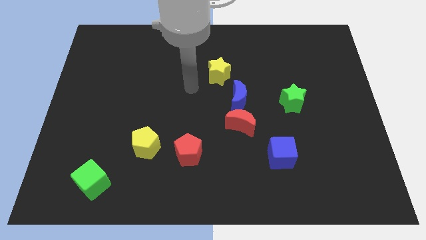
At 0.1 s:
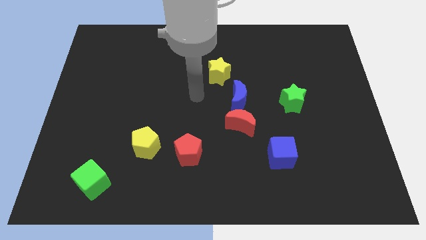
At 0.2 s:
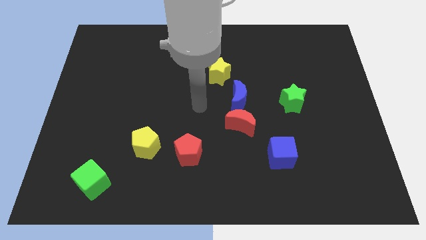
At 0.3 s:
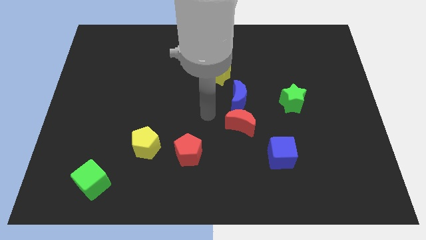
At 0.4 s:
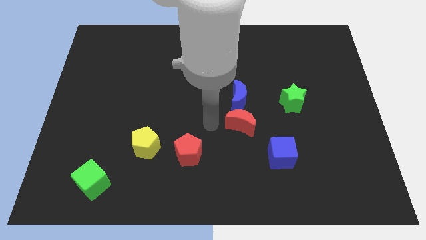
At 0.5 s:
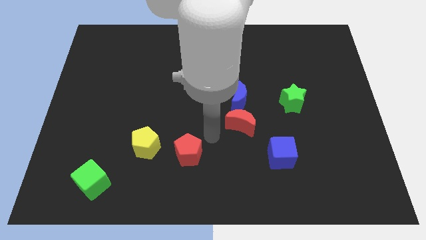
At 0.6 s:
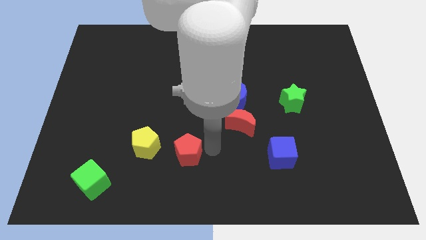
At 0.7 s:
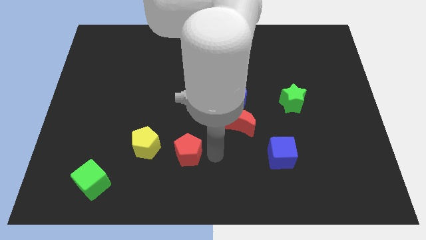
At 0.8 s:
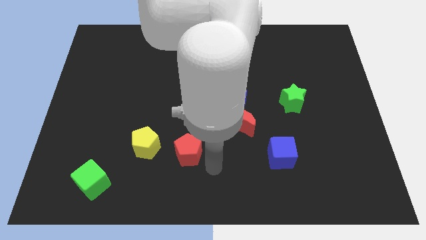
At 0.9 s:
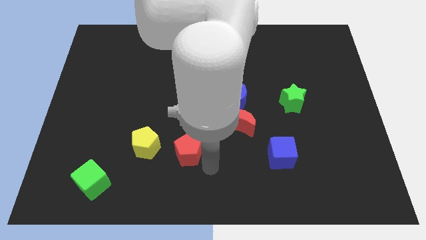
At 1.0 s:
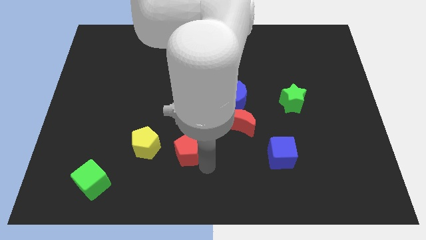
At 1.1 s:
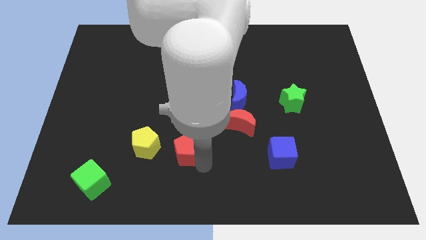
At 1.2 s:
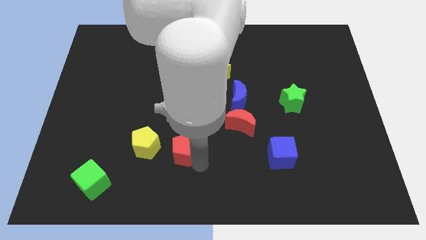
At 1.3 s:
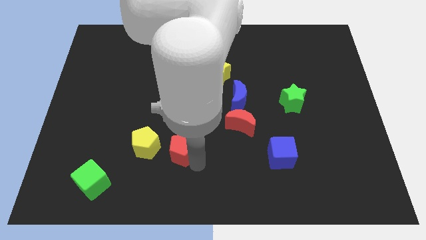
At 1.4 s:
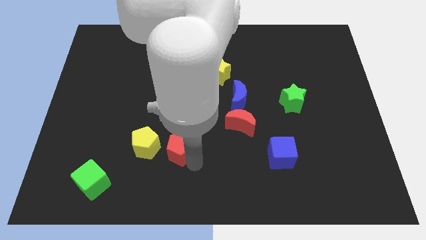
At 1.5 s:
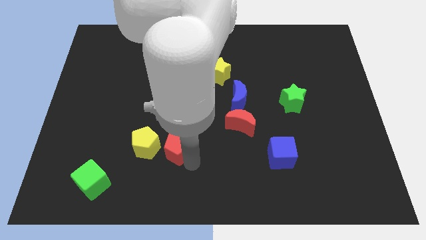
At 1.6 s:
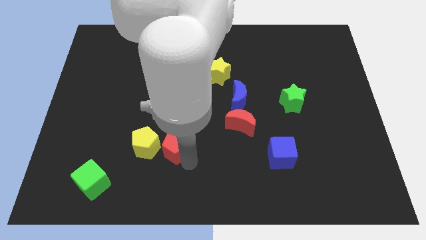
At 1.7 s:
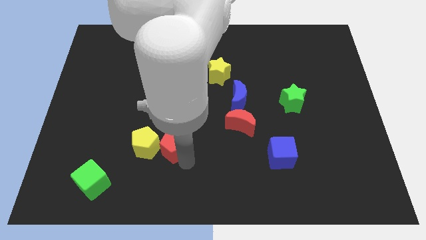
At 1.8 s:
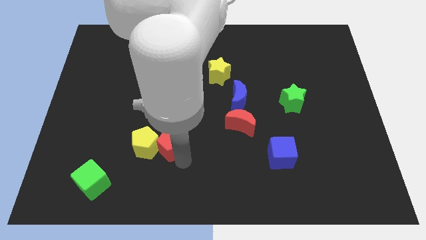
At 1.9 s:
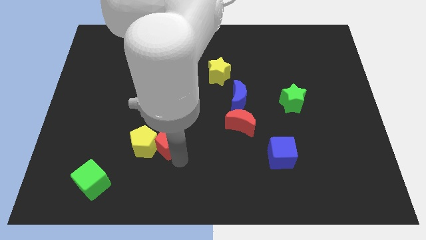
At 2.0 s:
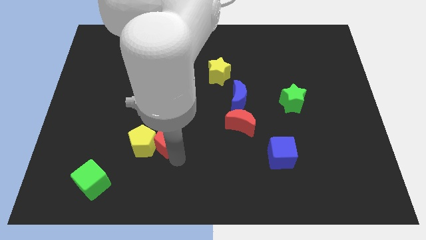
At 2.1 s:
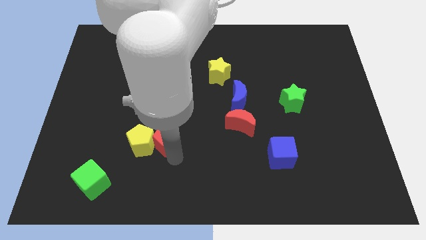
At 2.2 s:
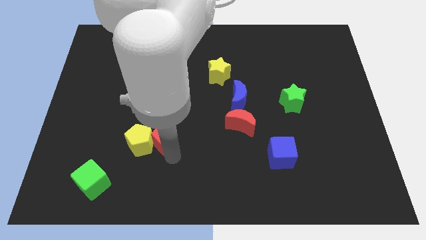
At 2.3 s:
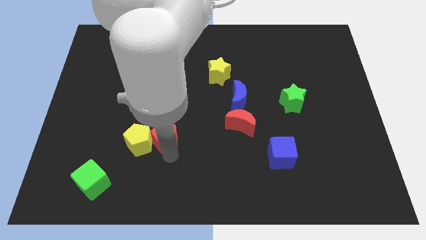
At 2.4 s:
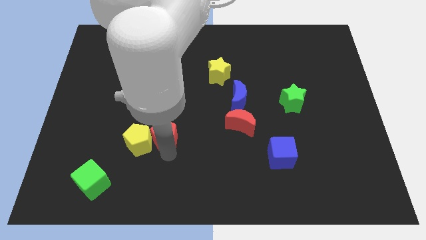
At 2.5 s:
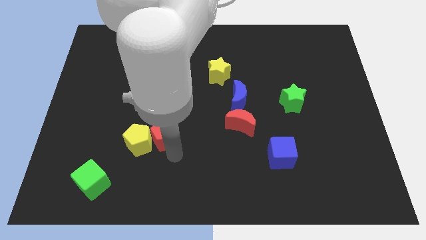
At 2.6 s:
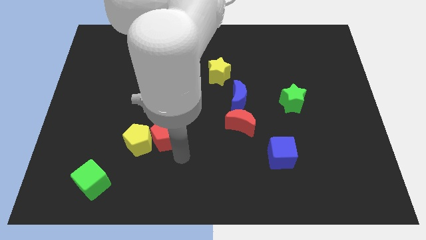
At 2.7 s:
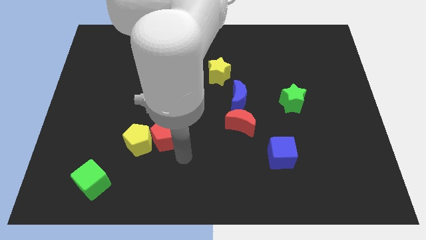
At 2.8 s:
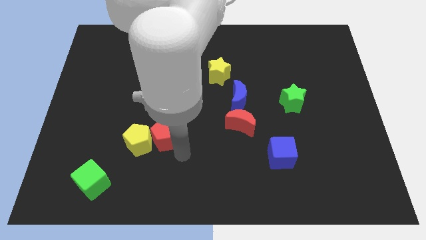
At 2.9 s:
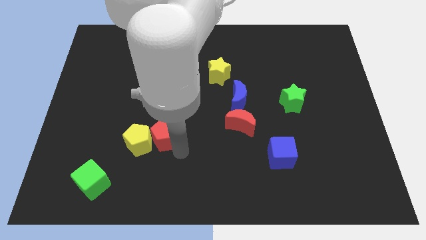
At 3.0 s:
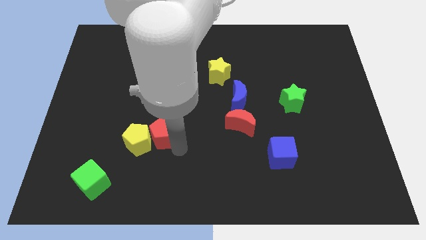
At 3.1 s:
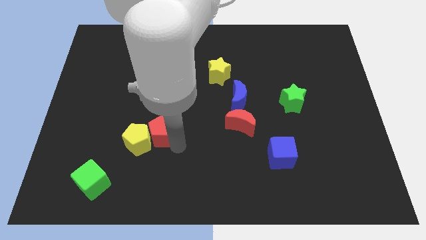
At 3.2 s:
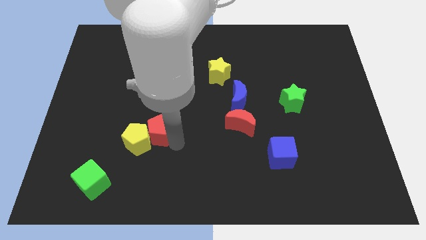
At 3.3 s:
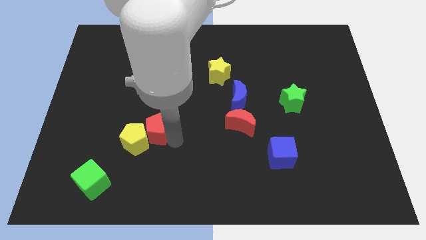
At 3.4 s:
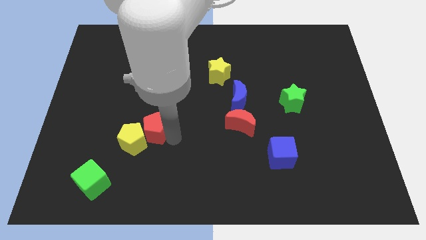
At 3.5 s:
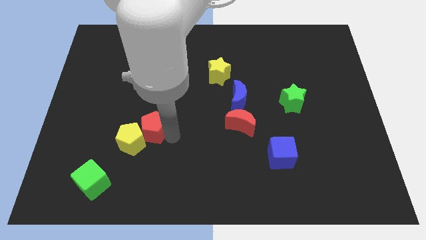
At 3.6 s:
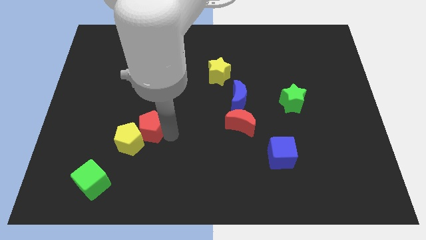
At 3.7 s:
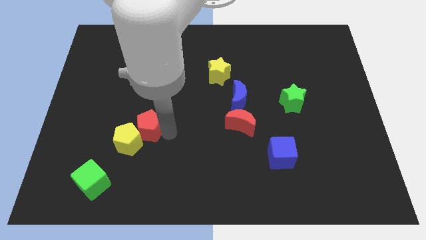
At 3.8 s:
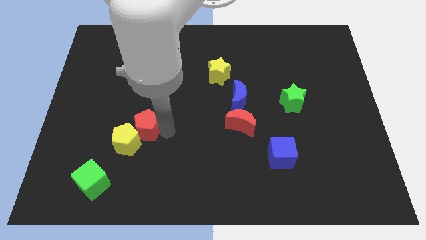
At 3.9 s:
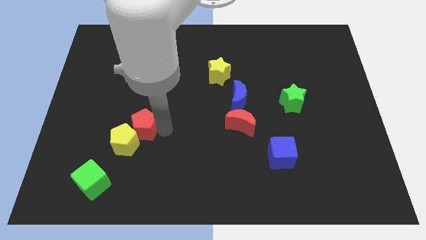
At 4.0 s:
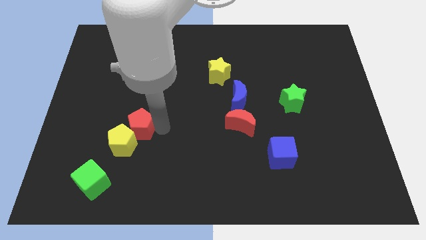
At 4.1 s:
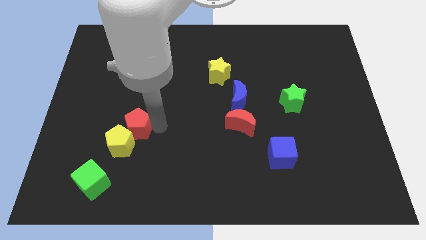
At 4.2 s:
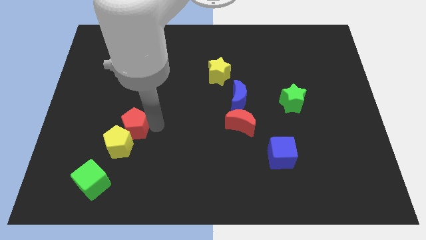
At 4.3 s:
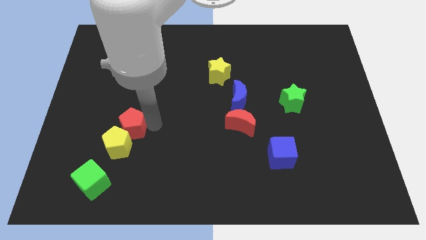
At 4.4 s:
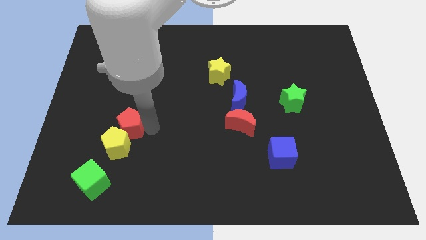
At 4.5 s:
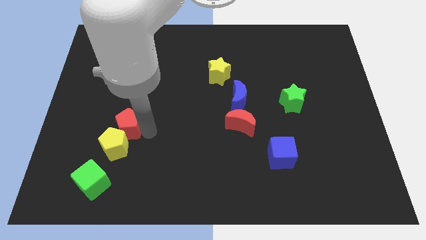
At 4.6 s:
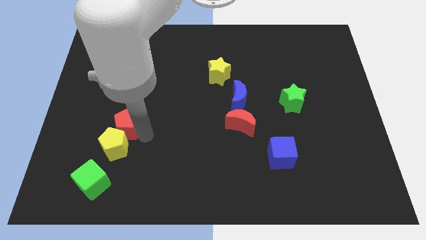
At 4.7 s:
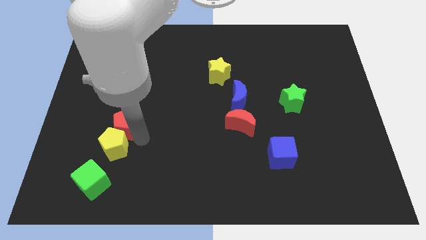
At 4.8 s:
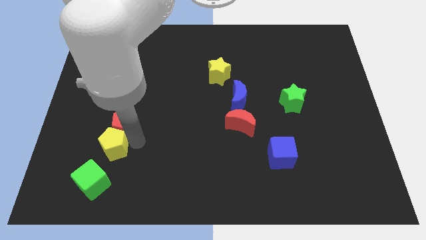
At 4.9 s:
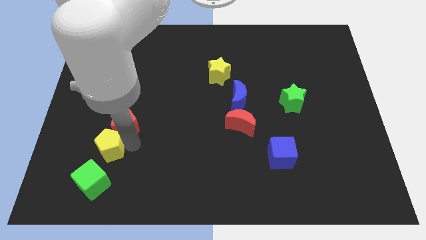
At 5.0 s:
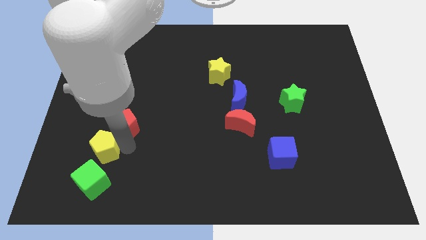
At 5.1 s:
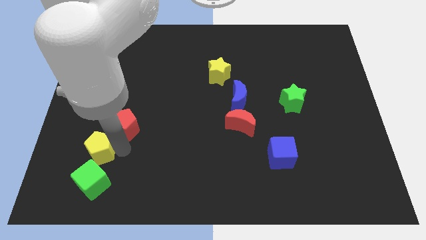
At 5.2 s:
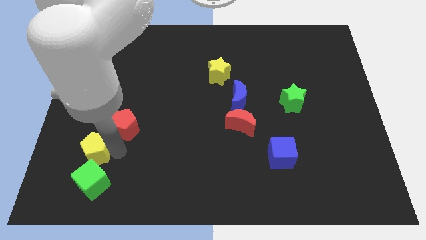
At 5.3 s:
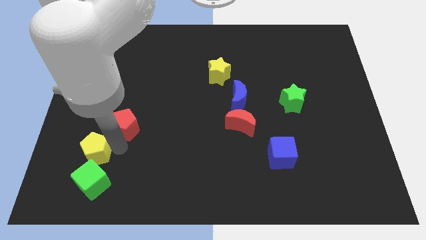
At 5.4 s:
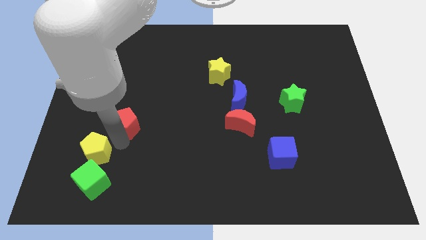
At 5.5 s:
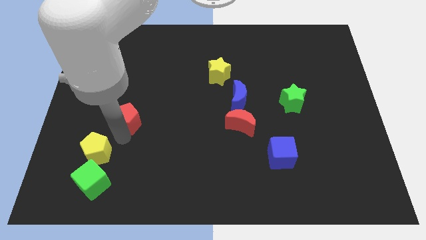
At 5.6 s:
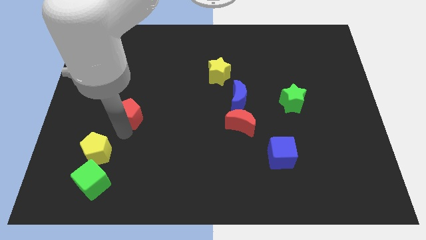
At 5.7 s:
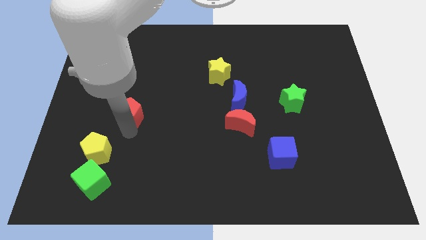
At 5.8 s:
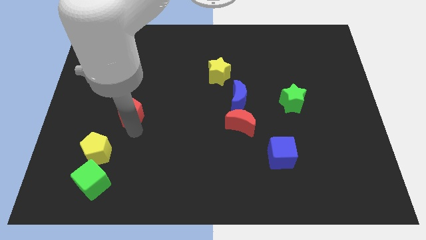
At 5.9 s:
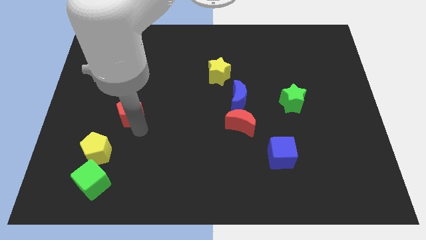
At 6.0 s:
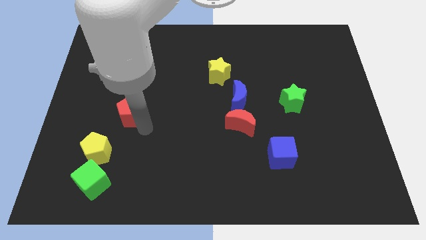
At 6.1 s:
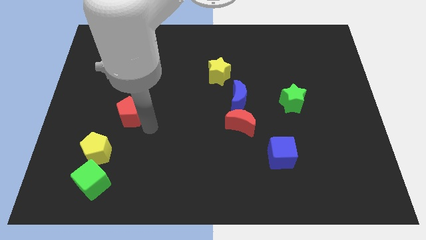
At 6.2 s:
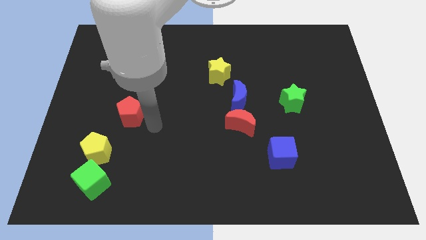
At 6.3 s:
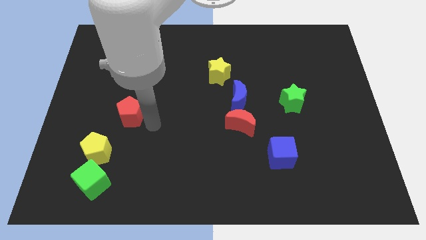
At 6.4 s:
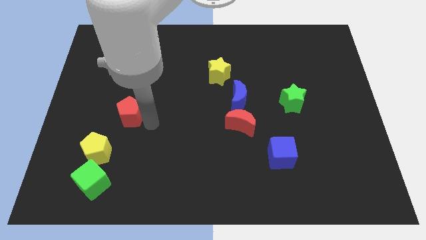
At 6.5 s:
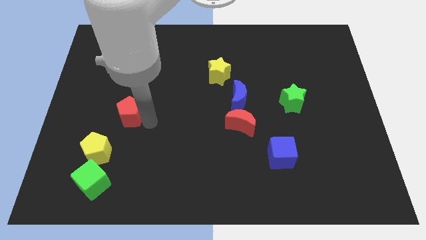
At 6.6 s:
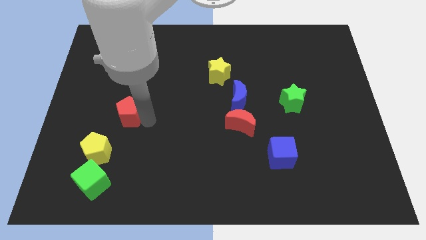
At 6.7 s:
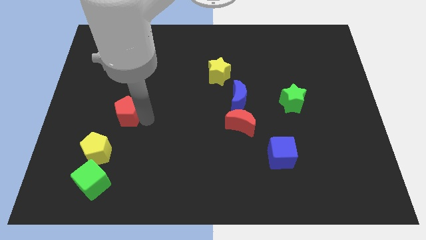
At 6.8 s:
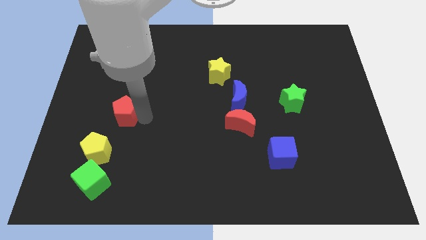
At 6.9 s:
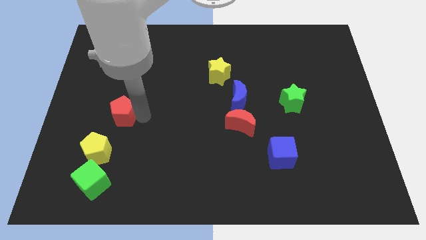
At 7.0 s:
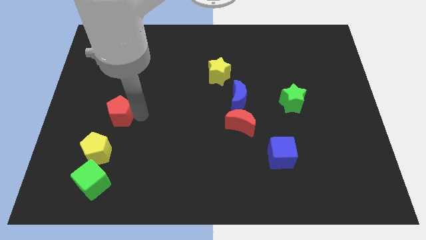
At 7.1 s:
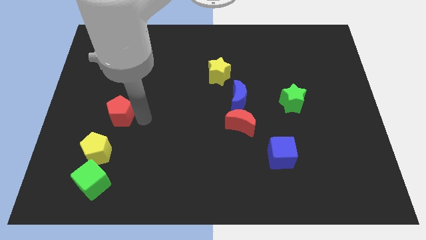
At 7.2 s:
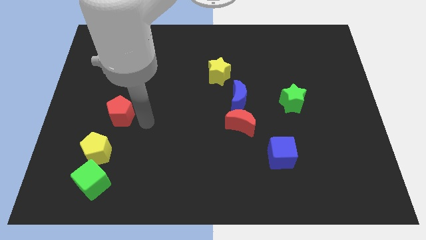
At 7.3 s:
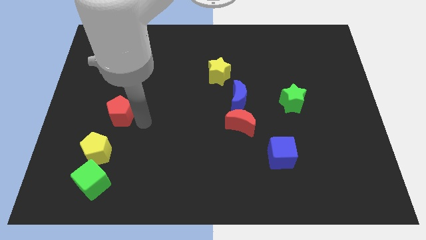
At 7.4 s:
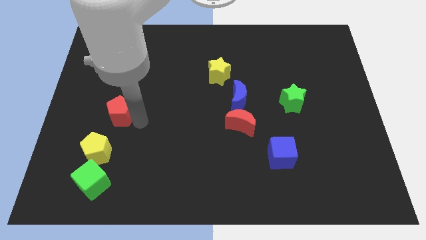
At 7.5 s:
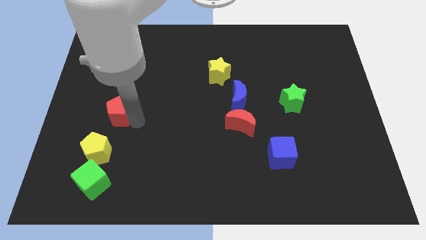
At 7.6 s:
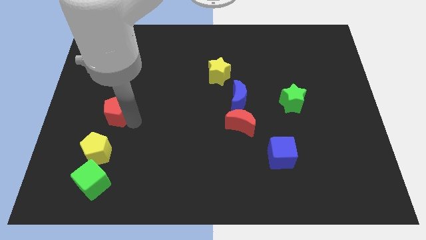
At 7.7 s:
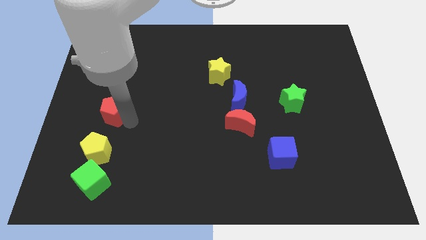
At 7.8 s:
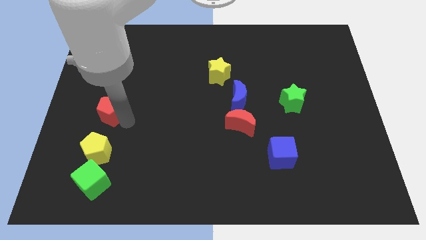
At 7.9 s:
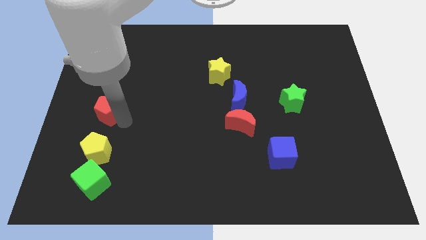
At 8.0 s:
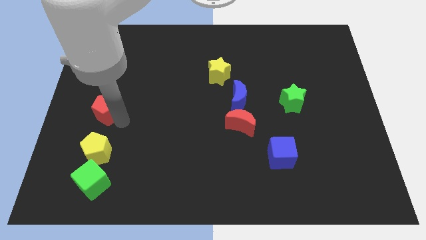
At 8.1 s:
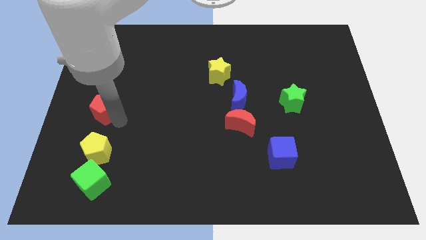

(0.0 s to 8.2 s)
move the red pentagon to the center left
